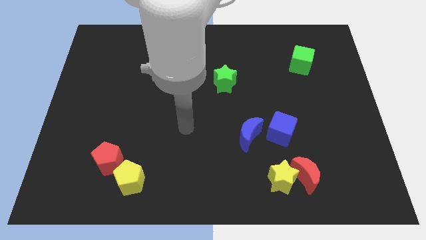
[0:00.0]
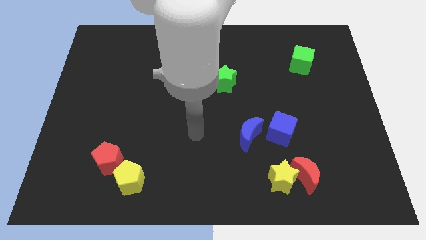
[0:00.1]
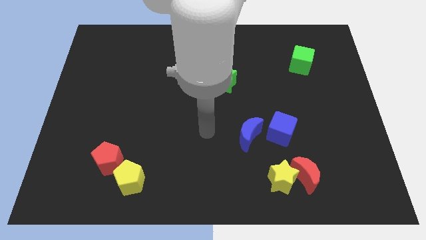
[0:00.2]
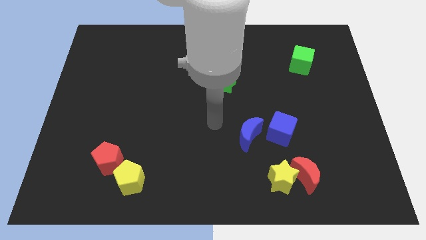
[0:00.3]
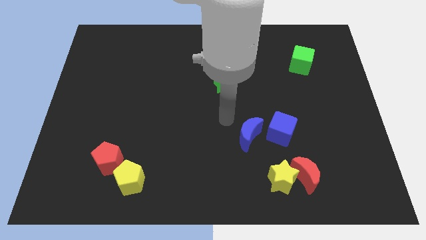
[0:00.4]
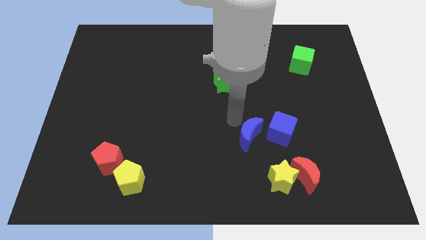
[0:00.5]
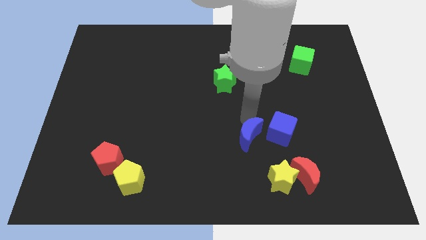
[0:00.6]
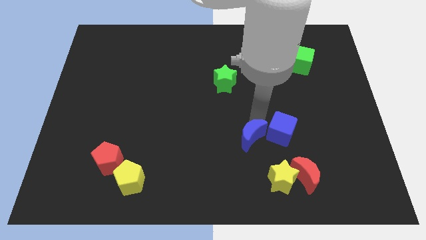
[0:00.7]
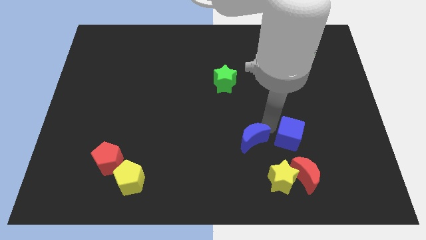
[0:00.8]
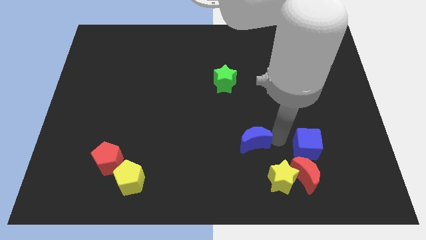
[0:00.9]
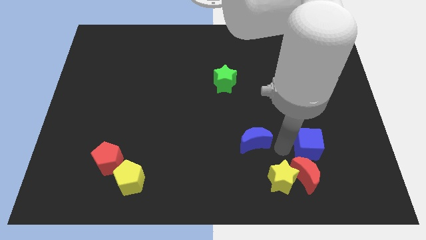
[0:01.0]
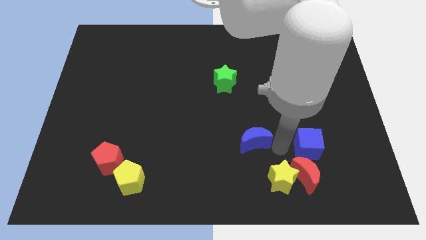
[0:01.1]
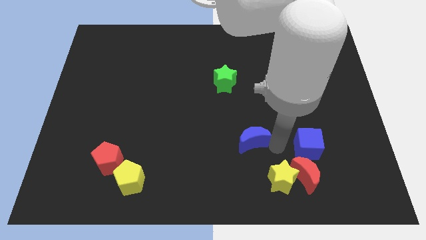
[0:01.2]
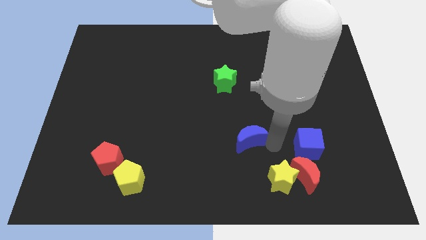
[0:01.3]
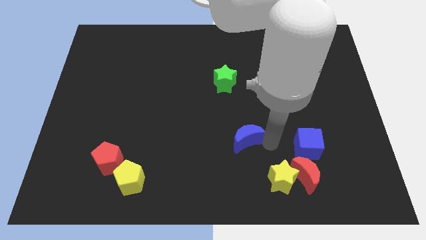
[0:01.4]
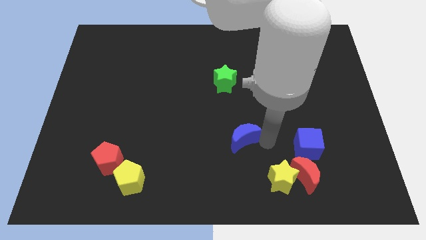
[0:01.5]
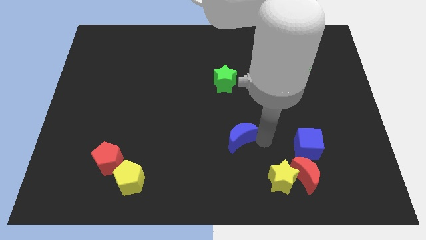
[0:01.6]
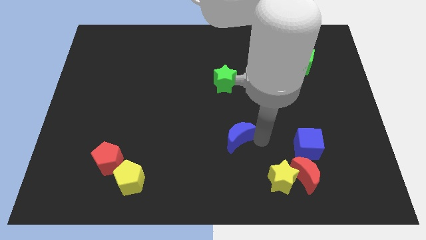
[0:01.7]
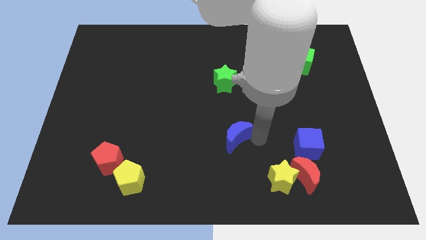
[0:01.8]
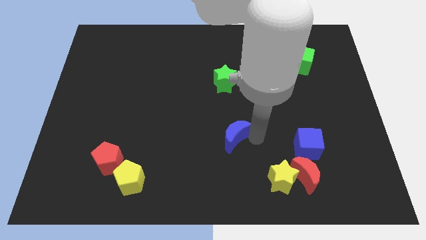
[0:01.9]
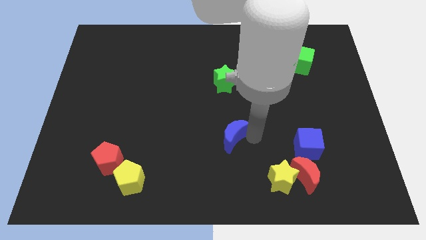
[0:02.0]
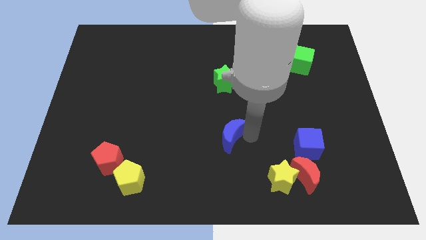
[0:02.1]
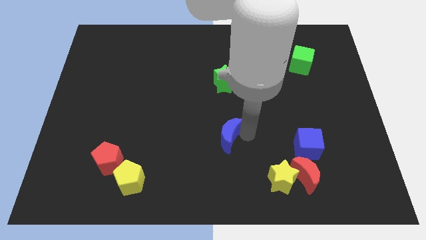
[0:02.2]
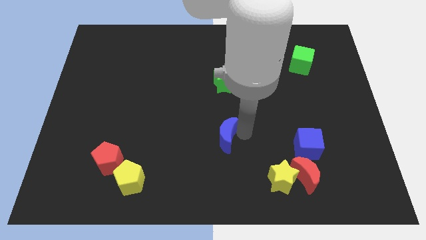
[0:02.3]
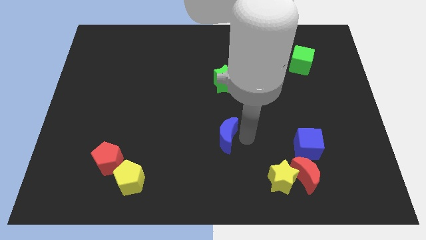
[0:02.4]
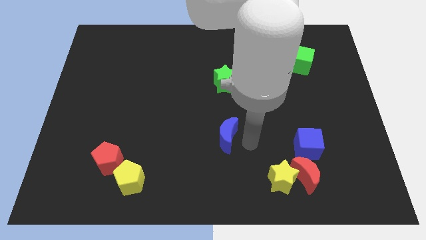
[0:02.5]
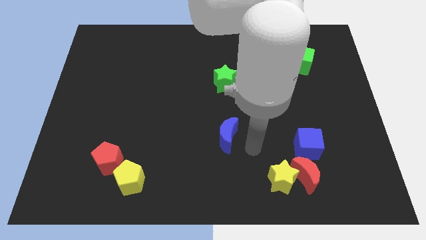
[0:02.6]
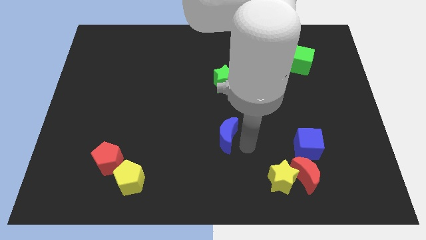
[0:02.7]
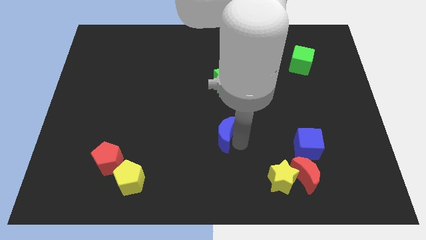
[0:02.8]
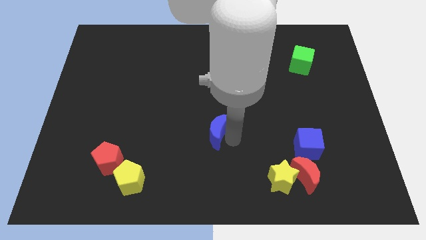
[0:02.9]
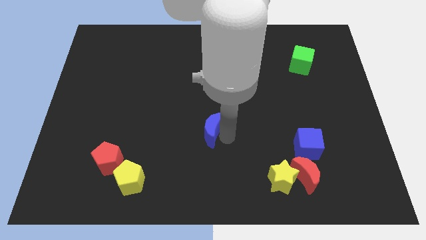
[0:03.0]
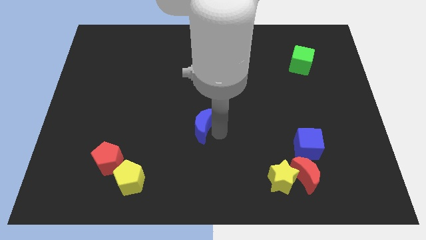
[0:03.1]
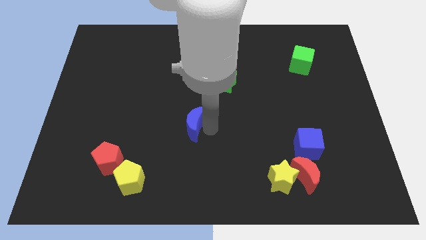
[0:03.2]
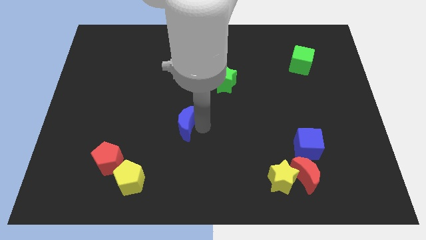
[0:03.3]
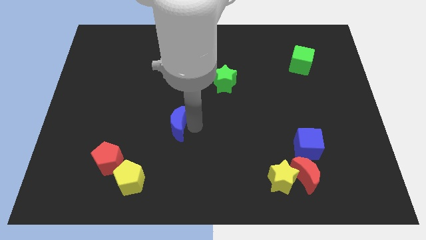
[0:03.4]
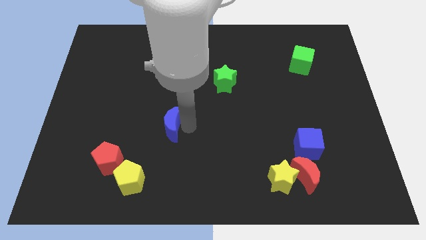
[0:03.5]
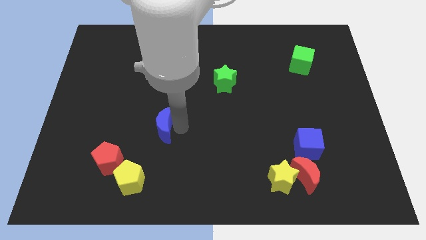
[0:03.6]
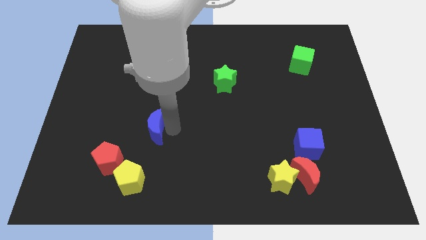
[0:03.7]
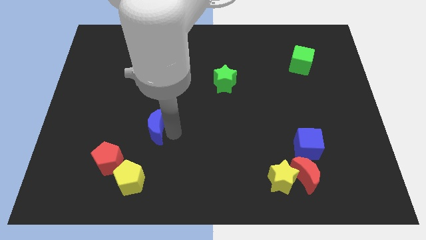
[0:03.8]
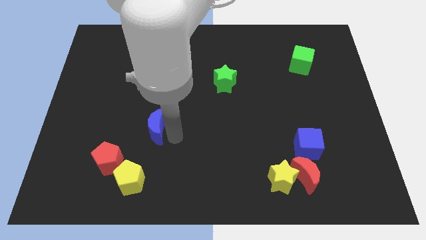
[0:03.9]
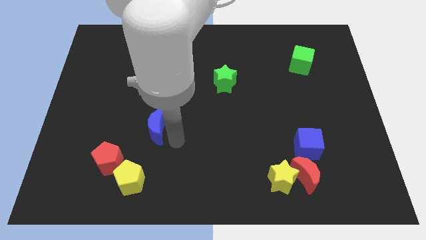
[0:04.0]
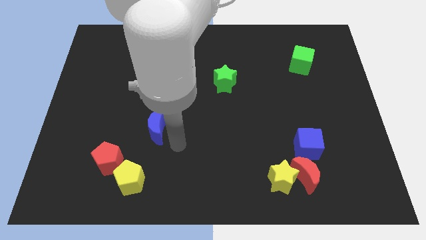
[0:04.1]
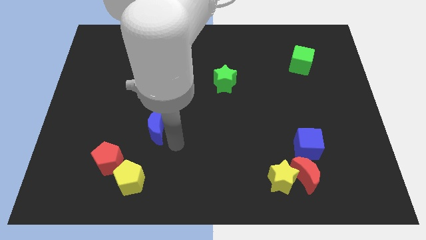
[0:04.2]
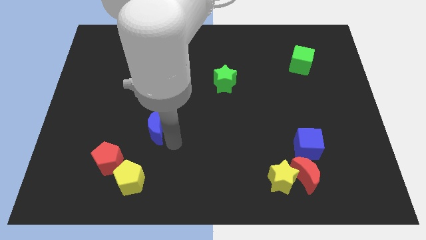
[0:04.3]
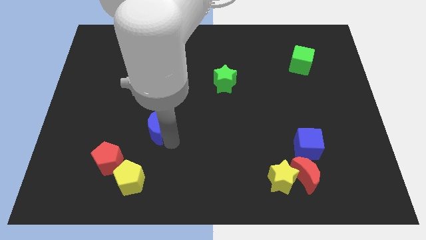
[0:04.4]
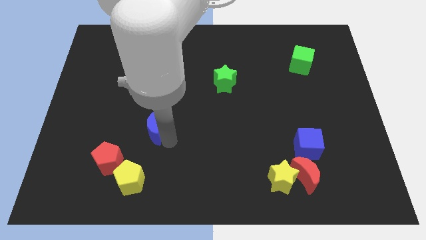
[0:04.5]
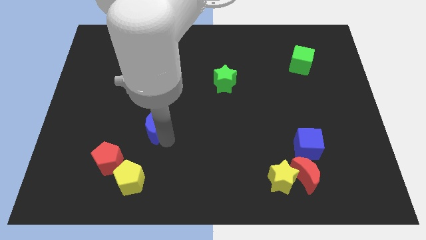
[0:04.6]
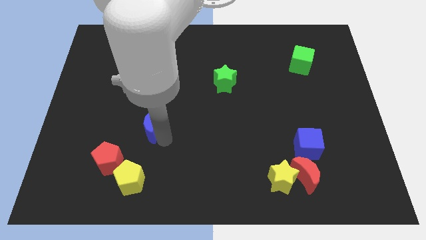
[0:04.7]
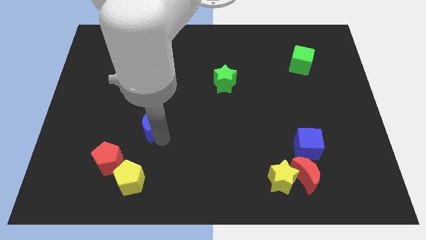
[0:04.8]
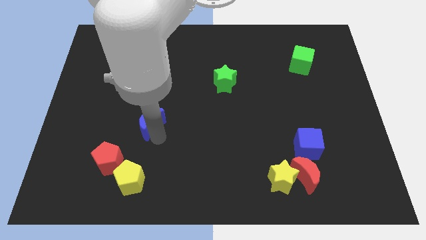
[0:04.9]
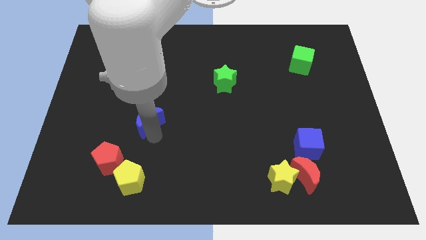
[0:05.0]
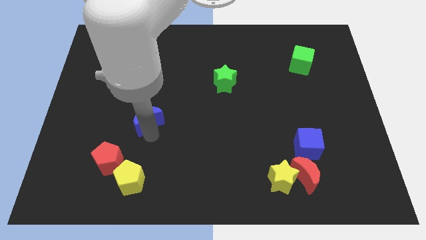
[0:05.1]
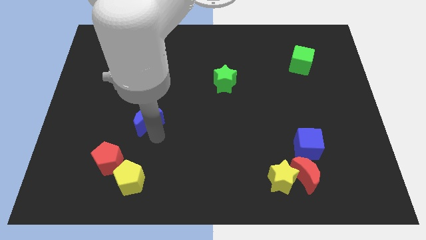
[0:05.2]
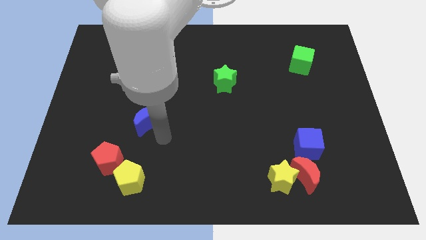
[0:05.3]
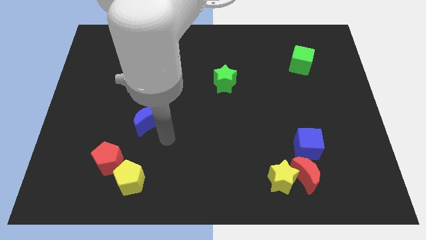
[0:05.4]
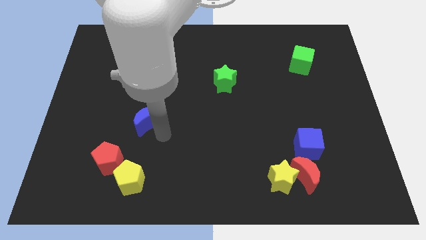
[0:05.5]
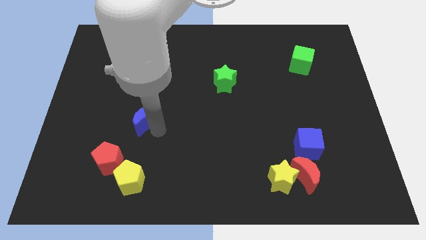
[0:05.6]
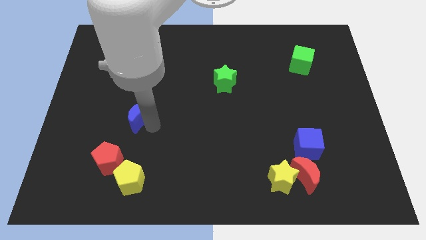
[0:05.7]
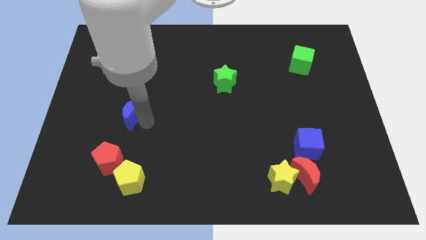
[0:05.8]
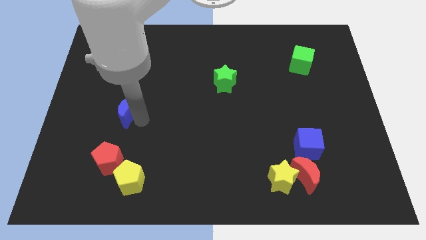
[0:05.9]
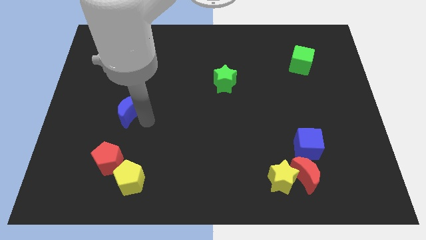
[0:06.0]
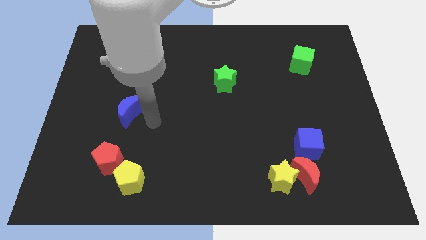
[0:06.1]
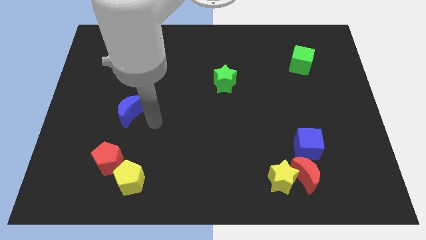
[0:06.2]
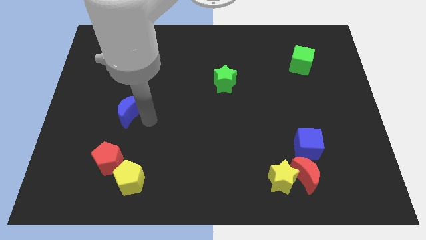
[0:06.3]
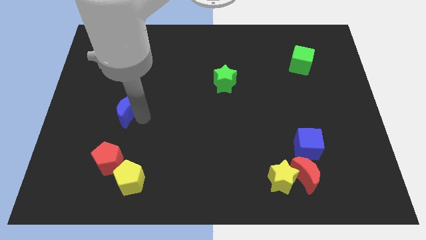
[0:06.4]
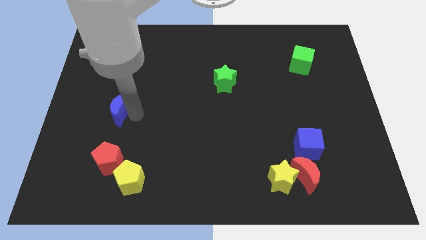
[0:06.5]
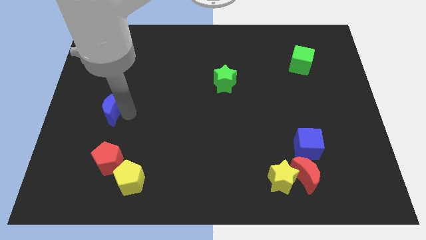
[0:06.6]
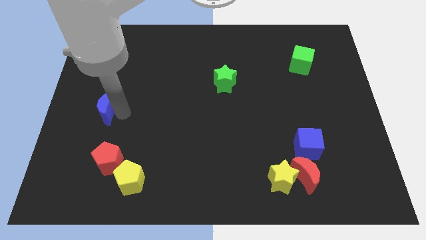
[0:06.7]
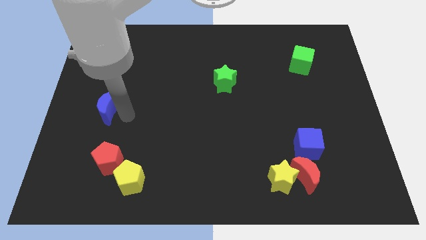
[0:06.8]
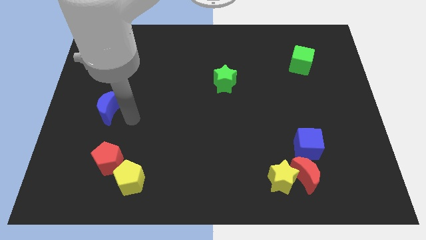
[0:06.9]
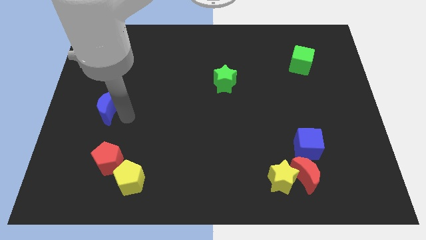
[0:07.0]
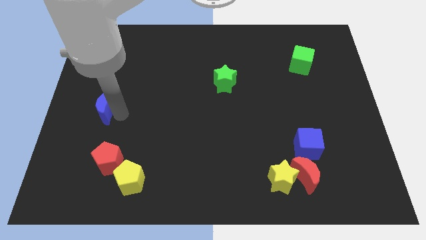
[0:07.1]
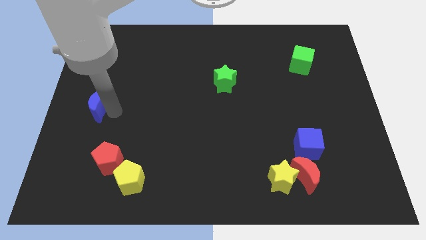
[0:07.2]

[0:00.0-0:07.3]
push the blue moon to the left side of the board
